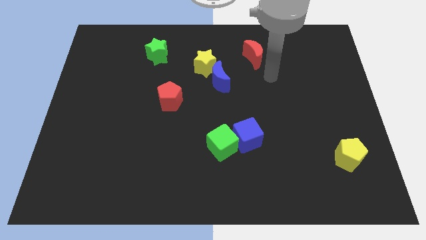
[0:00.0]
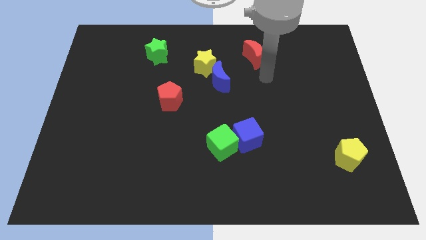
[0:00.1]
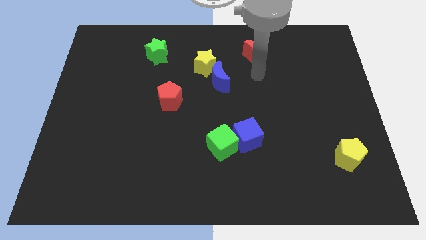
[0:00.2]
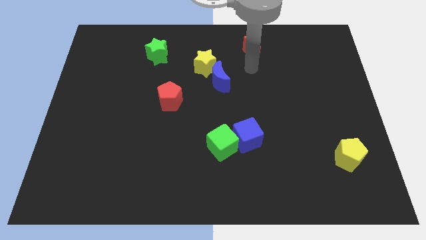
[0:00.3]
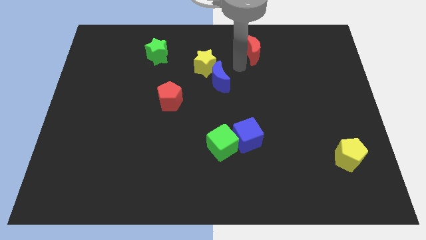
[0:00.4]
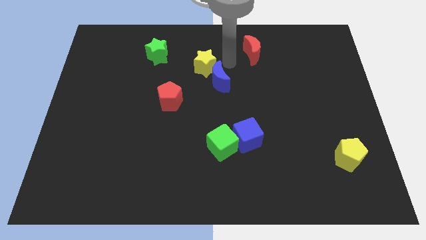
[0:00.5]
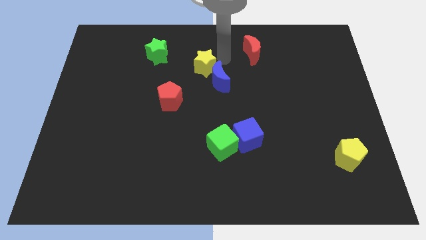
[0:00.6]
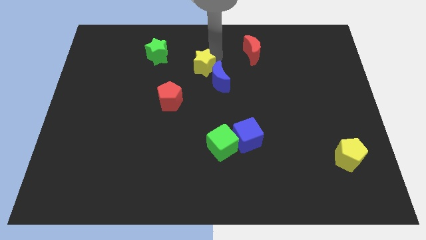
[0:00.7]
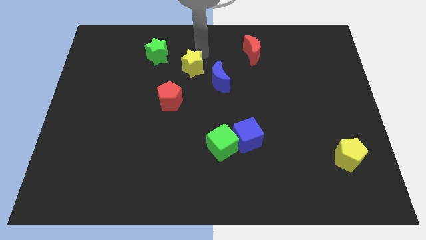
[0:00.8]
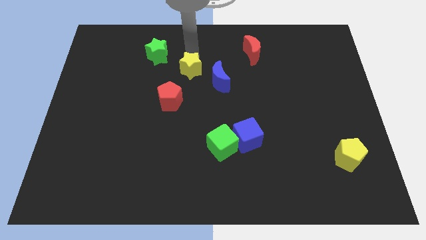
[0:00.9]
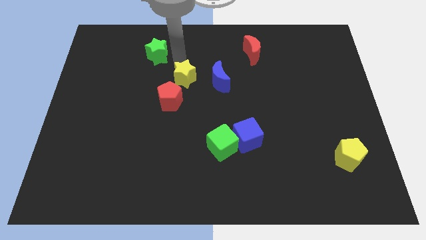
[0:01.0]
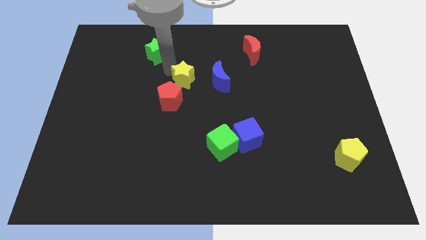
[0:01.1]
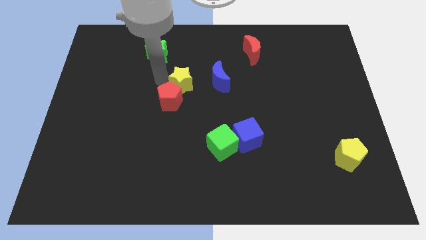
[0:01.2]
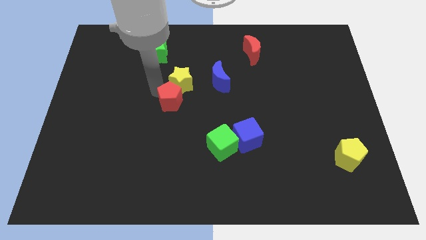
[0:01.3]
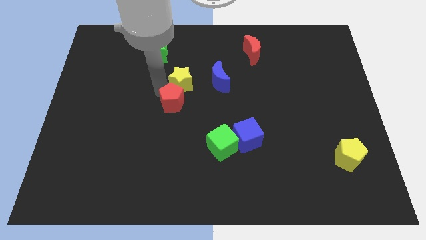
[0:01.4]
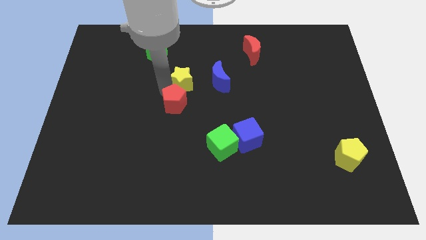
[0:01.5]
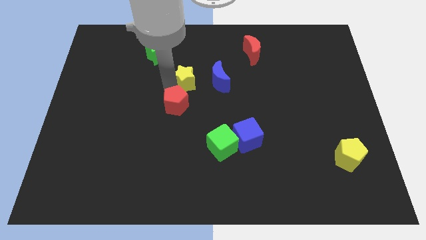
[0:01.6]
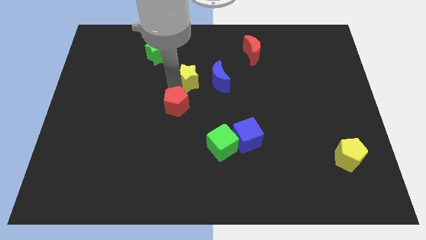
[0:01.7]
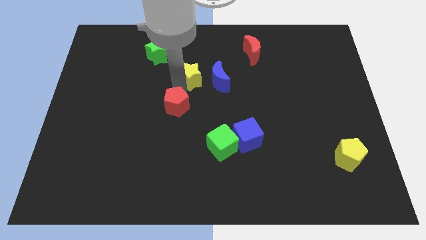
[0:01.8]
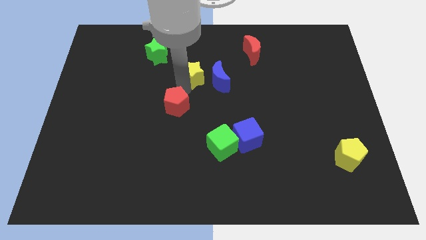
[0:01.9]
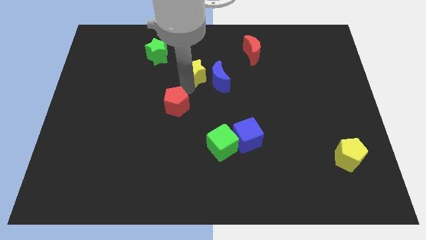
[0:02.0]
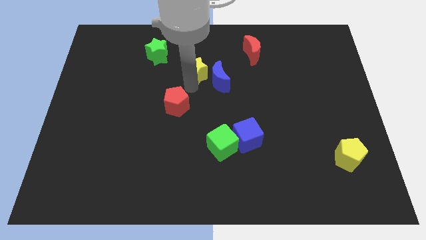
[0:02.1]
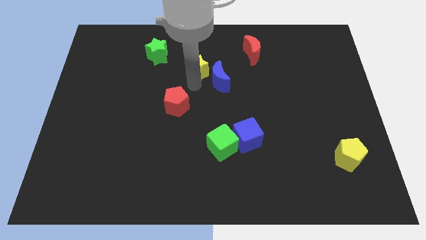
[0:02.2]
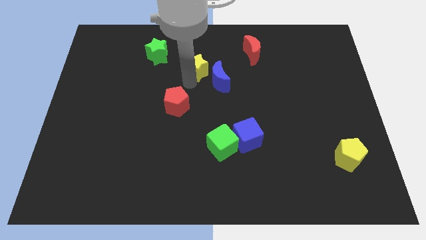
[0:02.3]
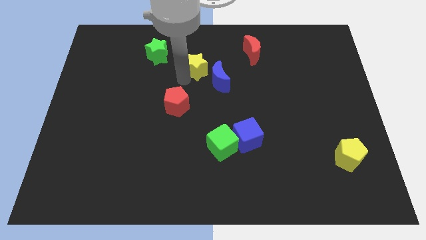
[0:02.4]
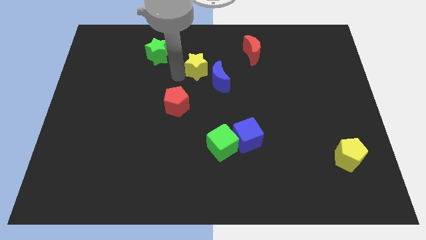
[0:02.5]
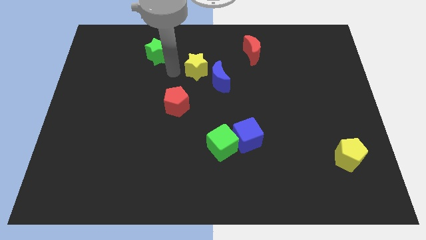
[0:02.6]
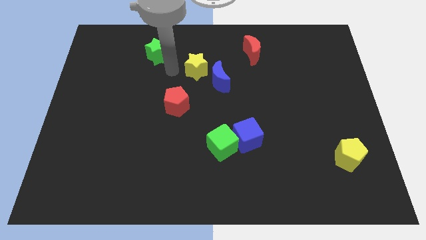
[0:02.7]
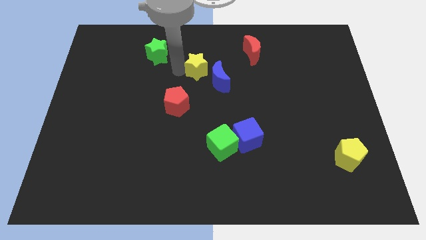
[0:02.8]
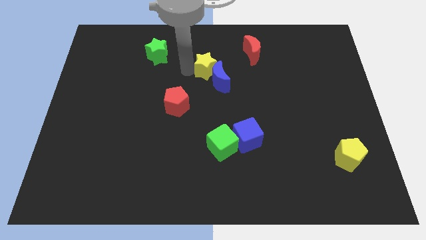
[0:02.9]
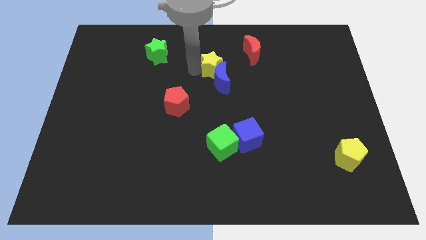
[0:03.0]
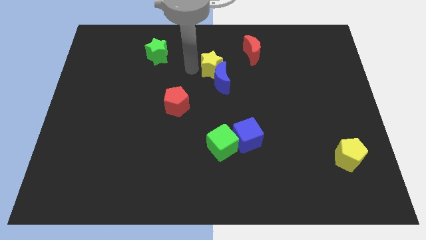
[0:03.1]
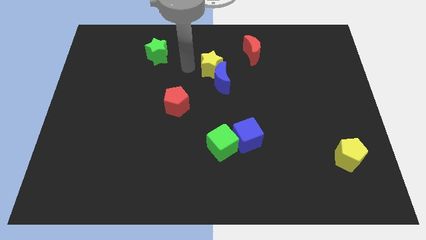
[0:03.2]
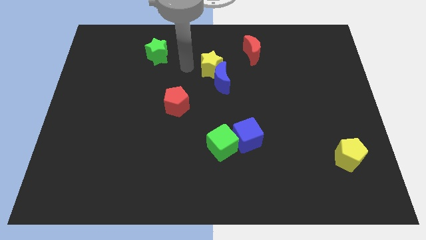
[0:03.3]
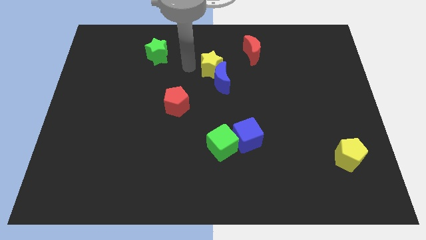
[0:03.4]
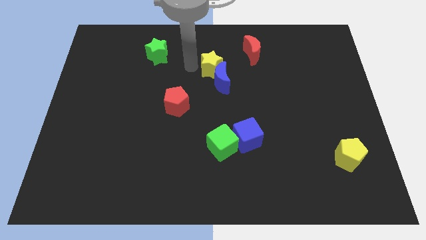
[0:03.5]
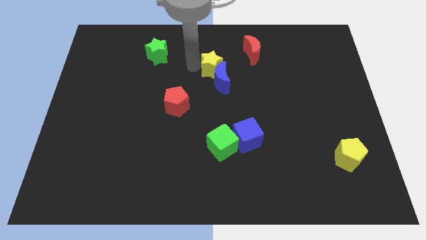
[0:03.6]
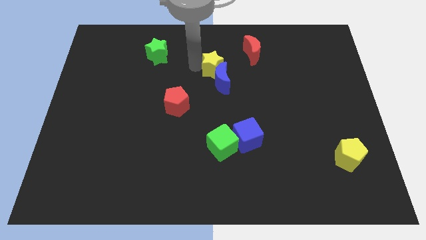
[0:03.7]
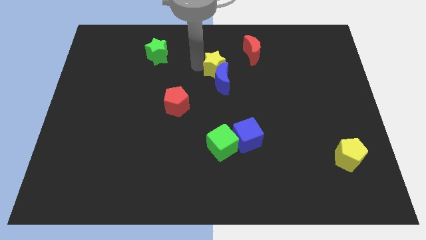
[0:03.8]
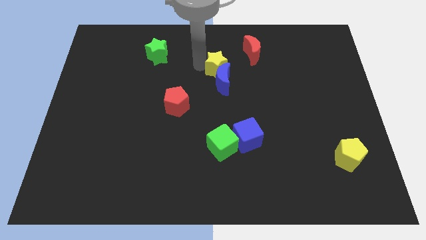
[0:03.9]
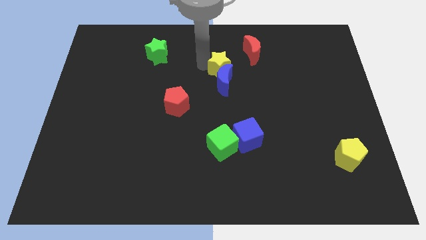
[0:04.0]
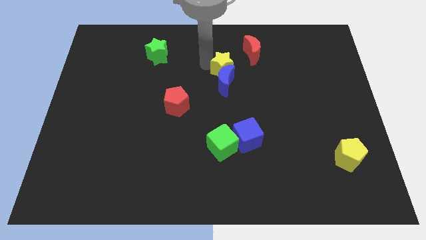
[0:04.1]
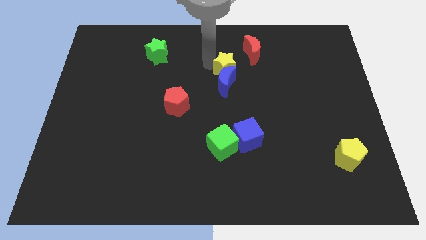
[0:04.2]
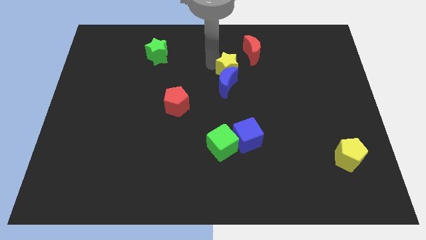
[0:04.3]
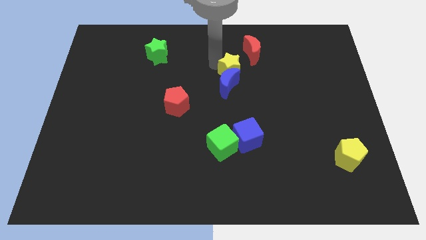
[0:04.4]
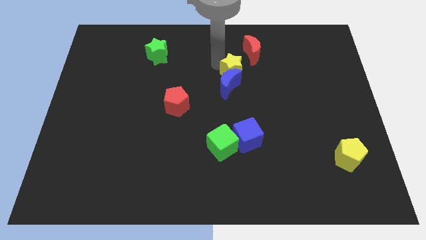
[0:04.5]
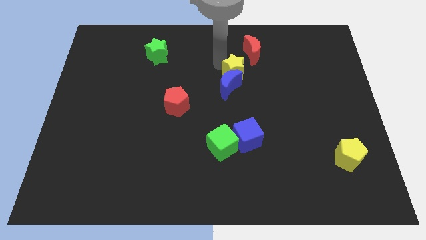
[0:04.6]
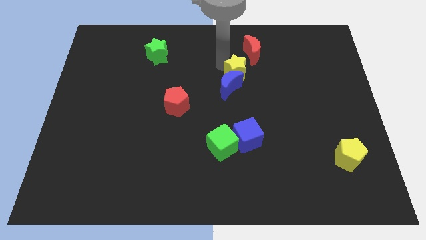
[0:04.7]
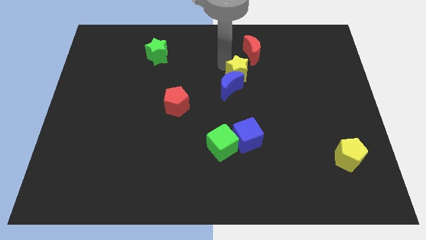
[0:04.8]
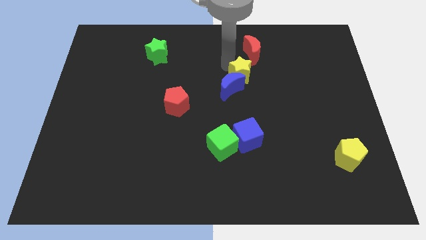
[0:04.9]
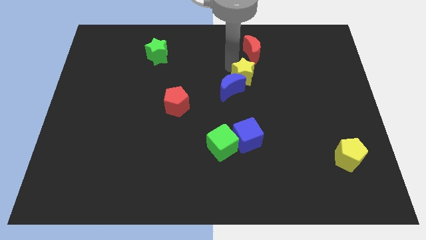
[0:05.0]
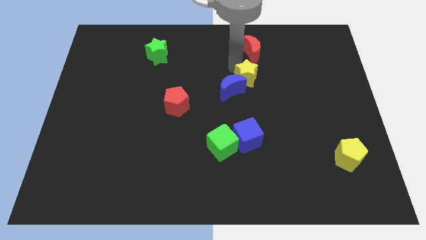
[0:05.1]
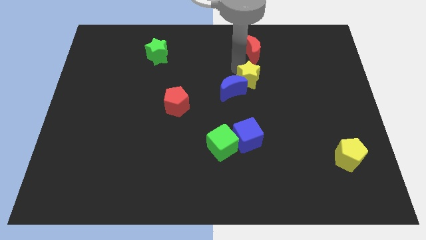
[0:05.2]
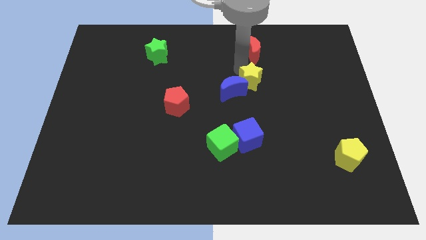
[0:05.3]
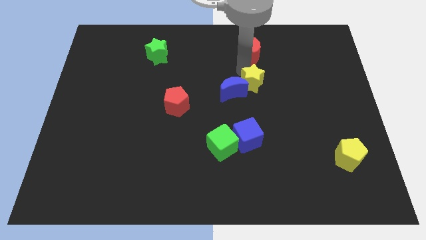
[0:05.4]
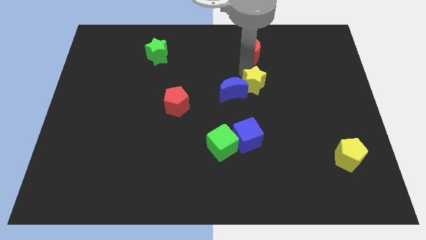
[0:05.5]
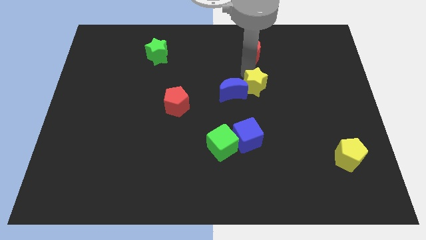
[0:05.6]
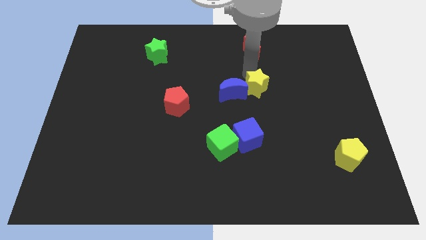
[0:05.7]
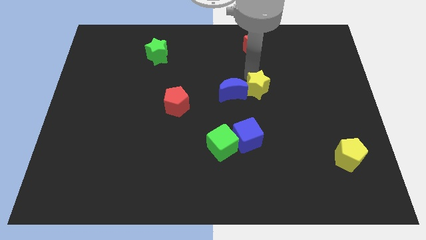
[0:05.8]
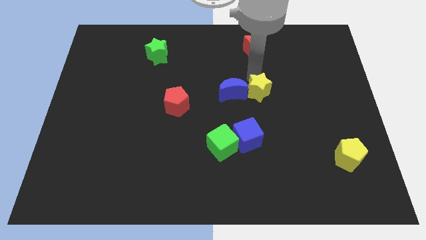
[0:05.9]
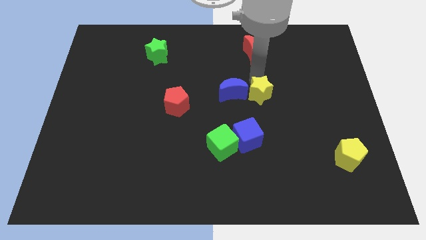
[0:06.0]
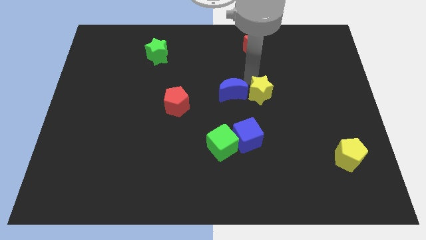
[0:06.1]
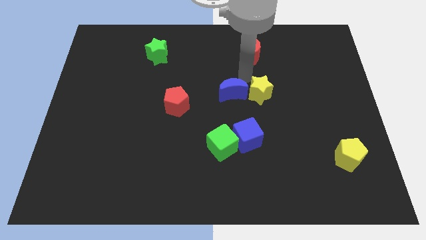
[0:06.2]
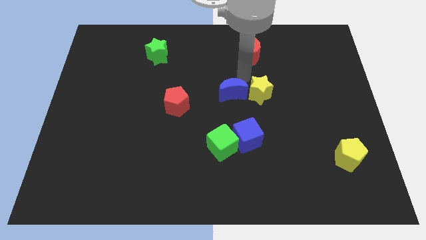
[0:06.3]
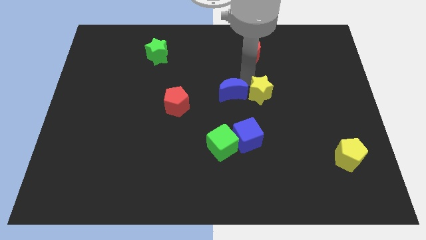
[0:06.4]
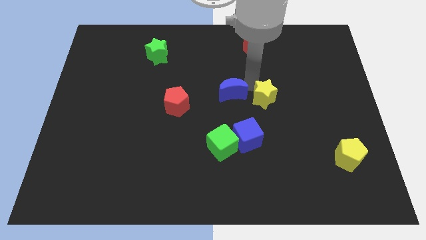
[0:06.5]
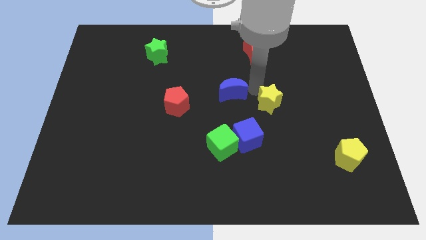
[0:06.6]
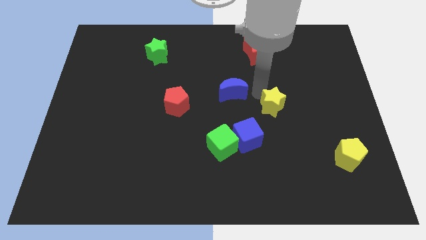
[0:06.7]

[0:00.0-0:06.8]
move the yellow star down and to the right diagonally

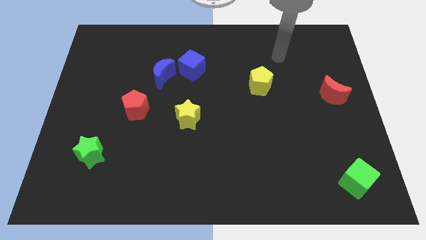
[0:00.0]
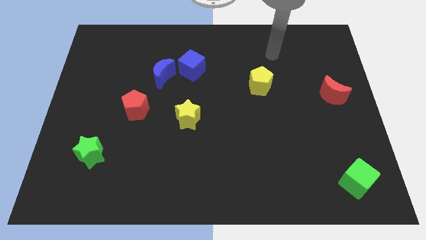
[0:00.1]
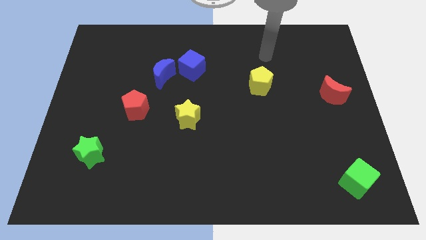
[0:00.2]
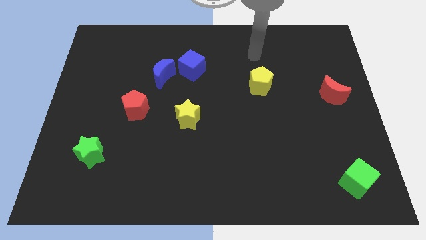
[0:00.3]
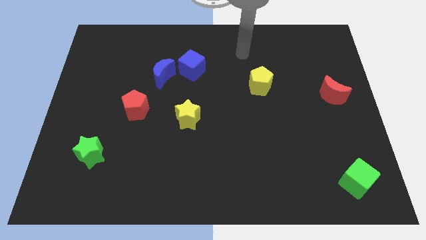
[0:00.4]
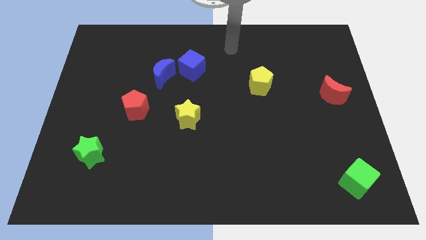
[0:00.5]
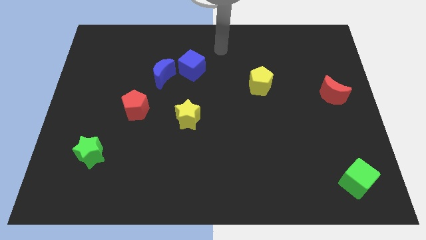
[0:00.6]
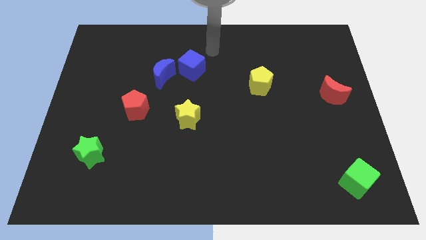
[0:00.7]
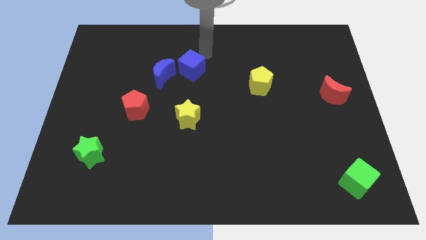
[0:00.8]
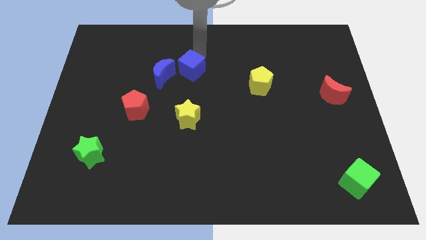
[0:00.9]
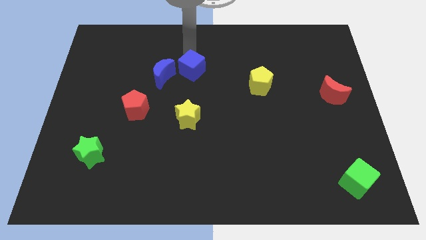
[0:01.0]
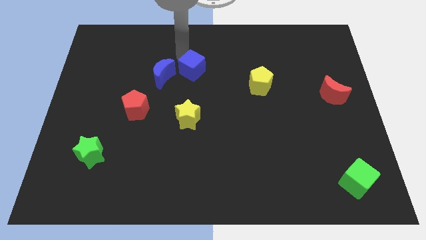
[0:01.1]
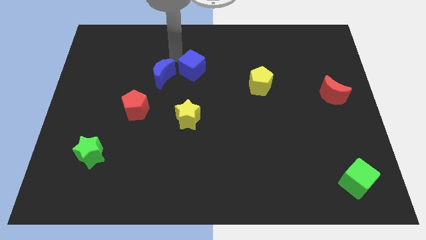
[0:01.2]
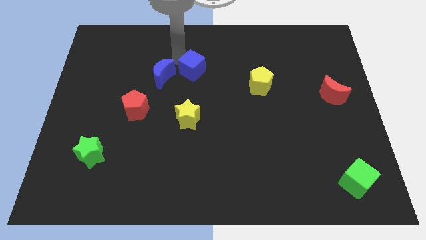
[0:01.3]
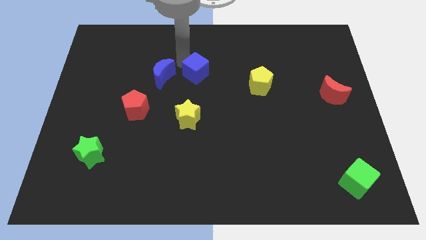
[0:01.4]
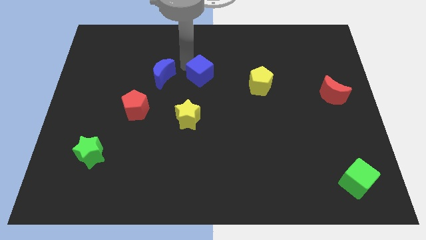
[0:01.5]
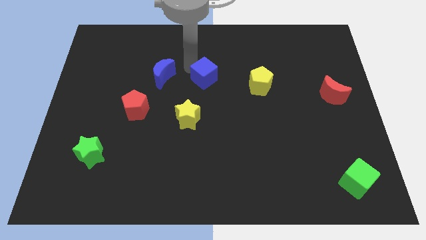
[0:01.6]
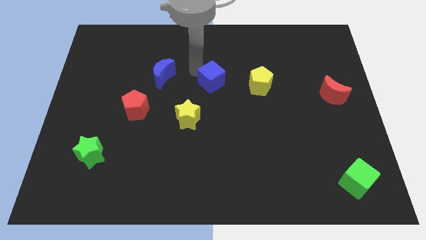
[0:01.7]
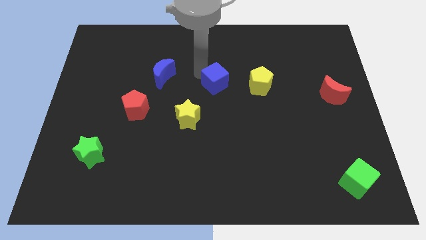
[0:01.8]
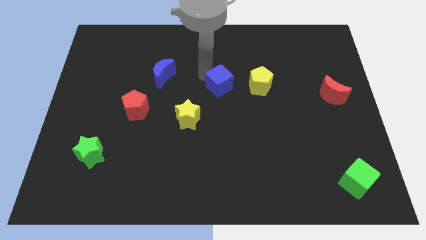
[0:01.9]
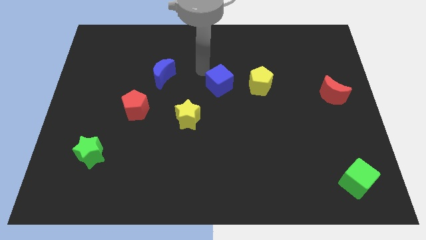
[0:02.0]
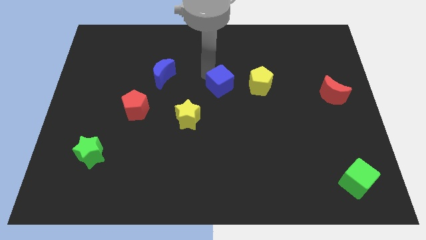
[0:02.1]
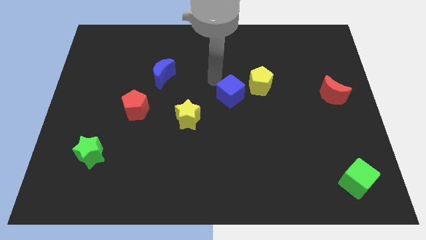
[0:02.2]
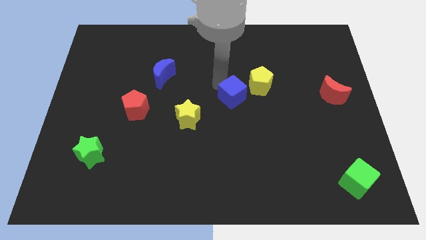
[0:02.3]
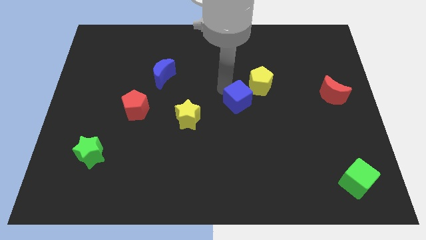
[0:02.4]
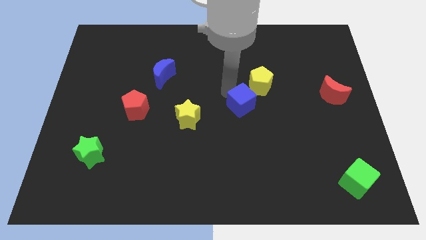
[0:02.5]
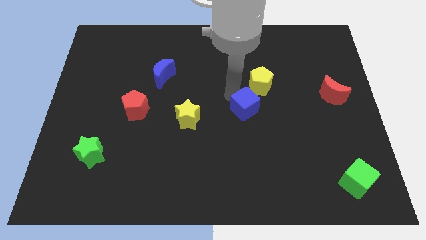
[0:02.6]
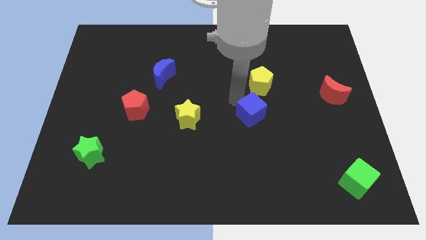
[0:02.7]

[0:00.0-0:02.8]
slide the blue cube diagonally down and to the right
